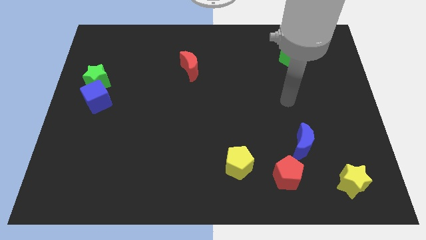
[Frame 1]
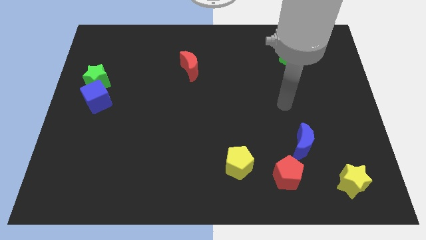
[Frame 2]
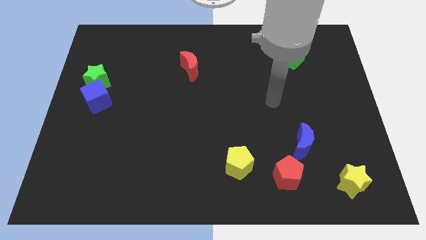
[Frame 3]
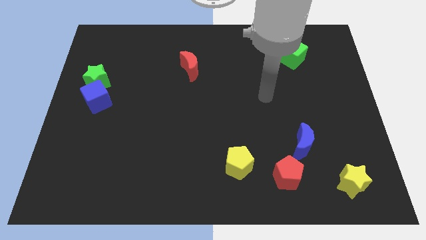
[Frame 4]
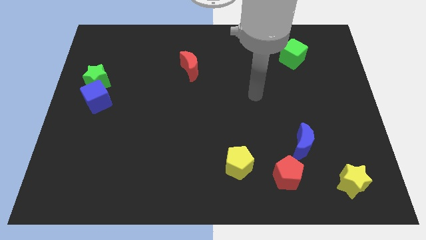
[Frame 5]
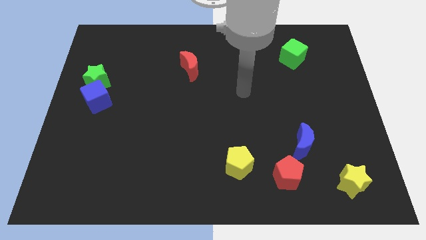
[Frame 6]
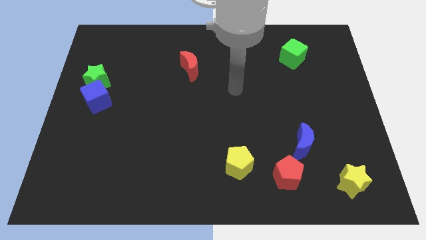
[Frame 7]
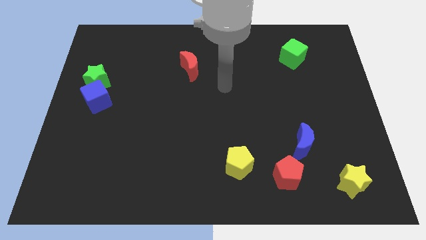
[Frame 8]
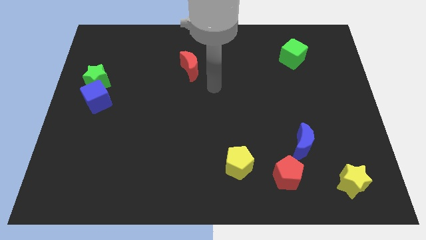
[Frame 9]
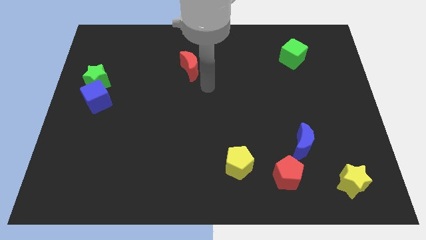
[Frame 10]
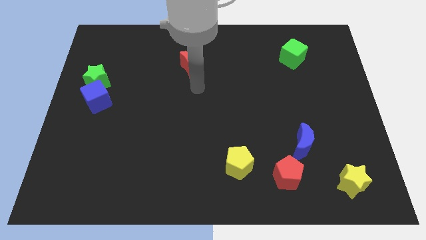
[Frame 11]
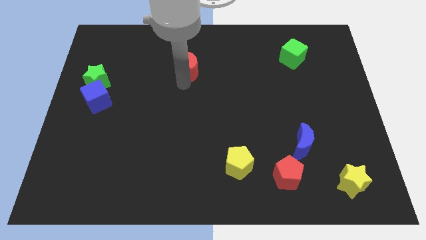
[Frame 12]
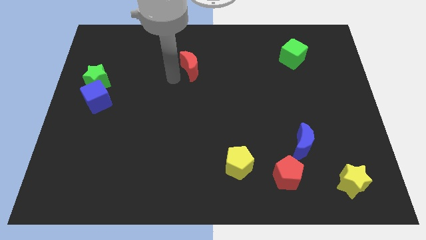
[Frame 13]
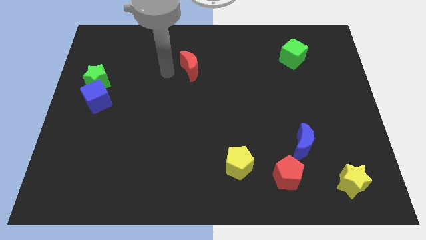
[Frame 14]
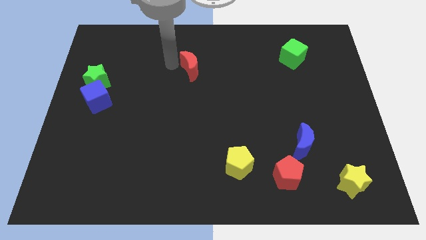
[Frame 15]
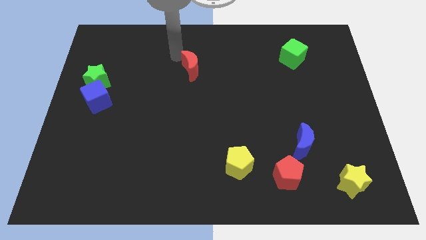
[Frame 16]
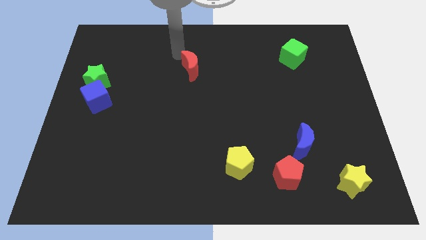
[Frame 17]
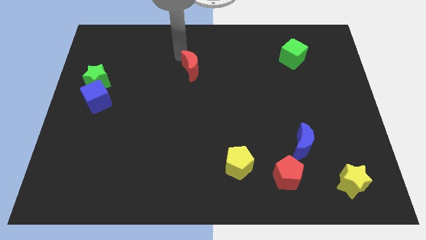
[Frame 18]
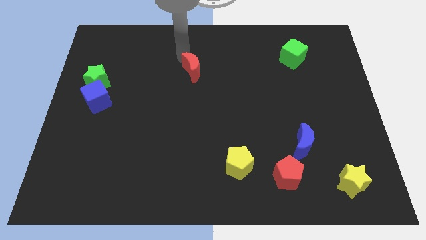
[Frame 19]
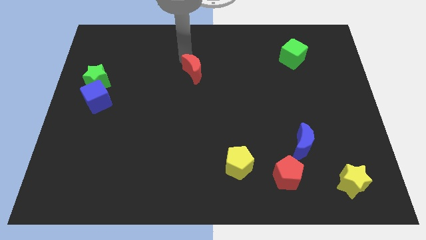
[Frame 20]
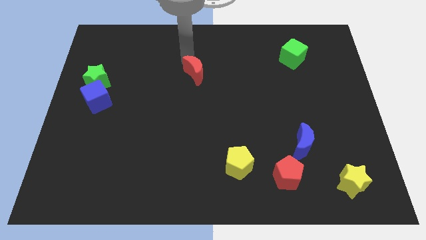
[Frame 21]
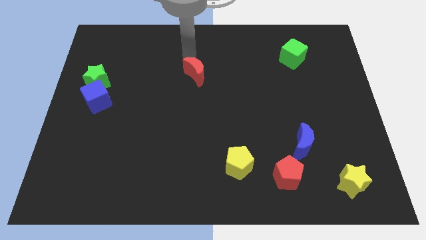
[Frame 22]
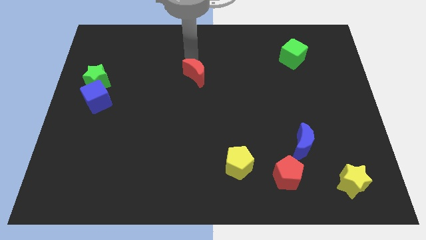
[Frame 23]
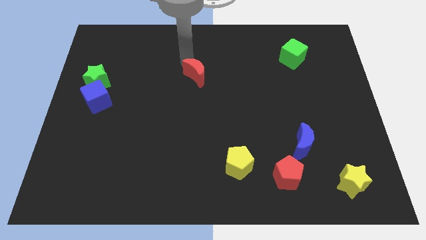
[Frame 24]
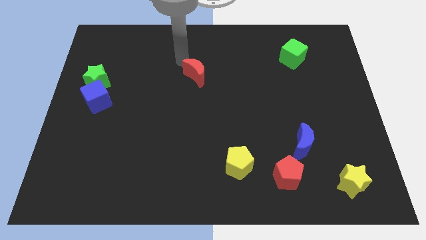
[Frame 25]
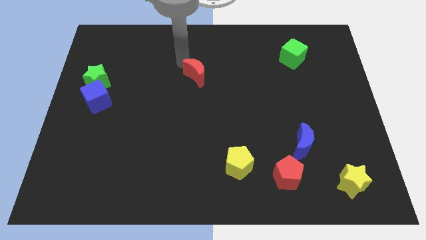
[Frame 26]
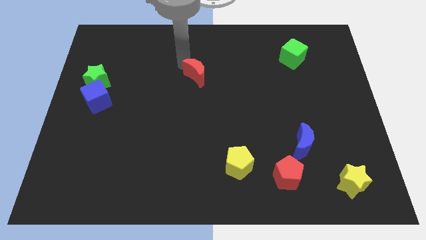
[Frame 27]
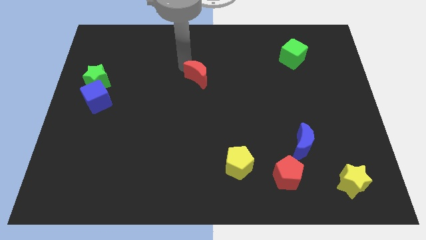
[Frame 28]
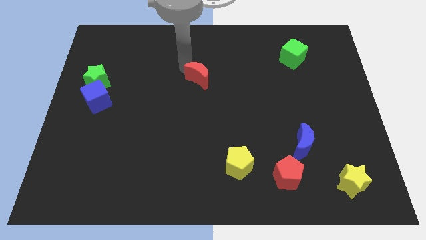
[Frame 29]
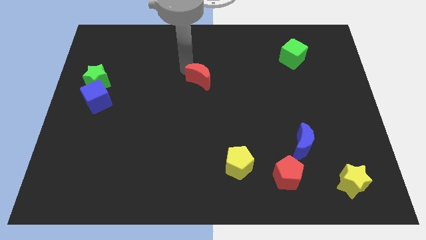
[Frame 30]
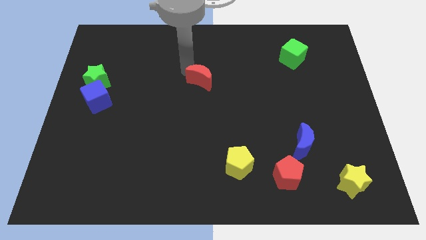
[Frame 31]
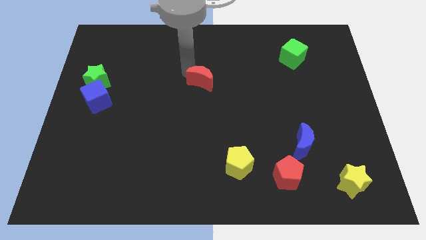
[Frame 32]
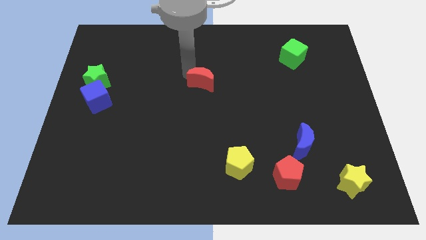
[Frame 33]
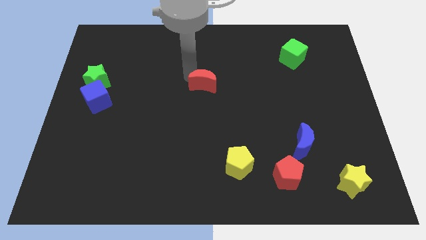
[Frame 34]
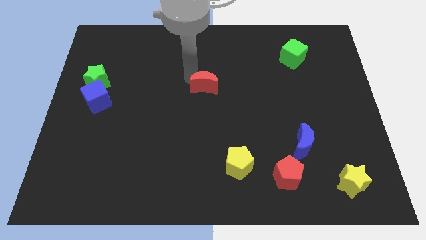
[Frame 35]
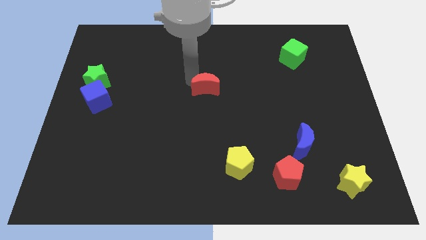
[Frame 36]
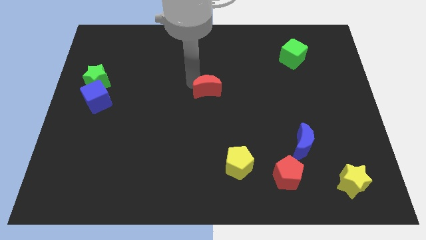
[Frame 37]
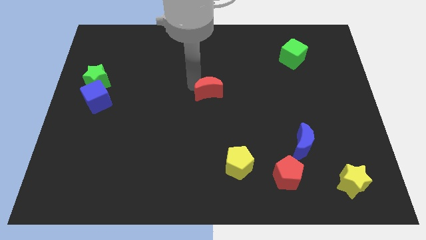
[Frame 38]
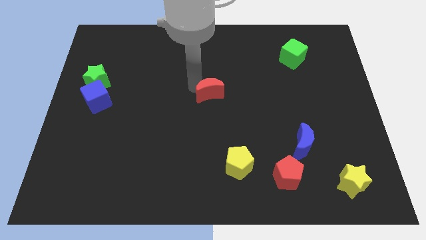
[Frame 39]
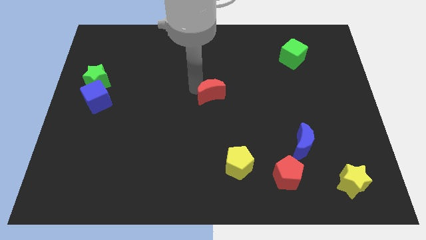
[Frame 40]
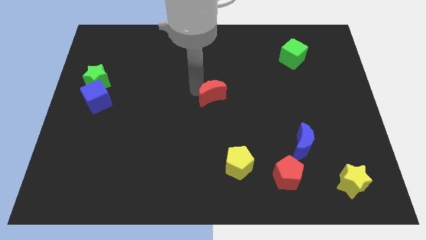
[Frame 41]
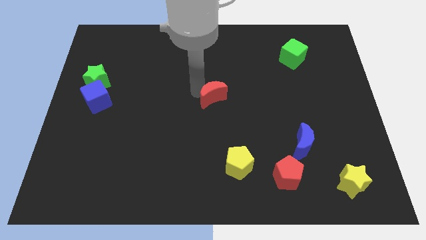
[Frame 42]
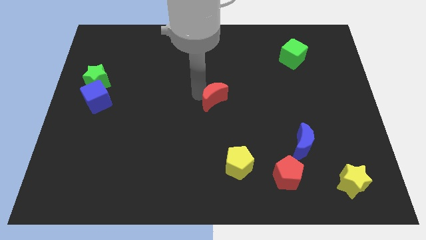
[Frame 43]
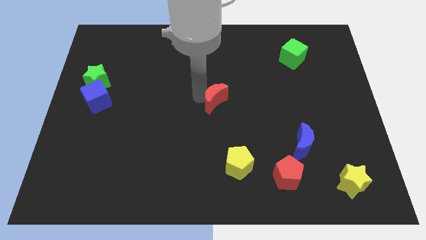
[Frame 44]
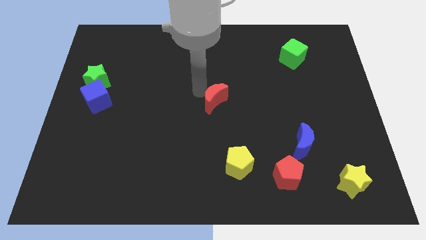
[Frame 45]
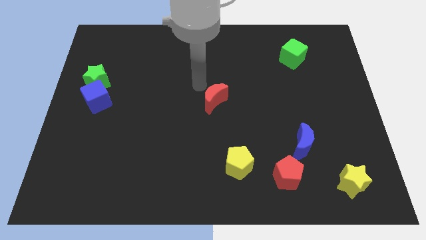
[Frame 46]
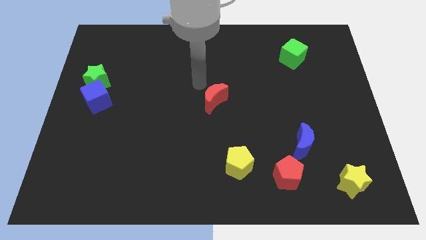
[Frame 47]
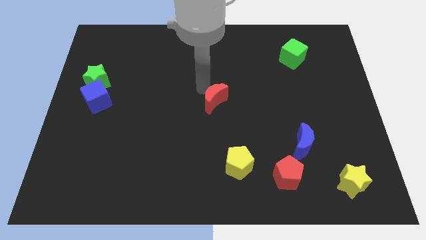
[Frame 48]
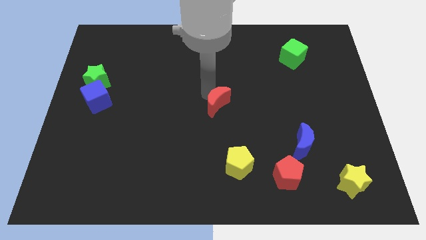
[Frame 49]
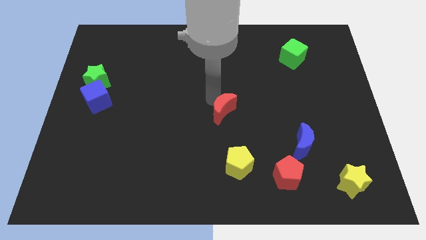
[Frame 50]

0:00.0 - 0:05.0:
move the red moon to the top side of the yellow pentagon

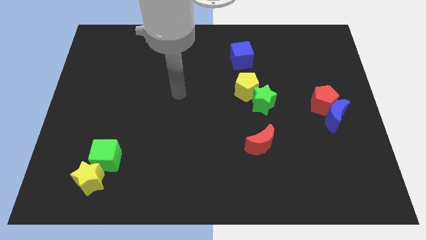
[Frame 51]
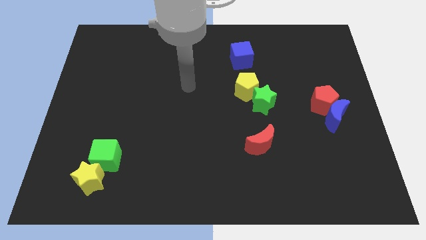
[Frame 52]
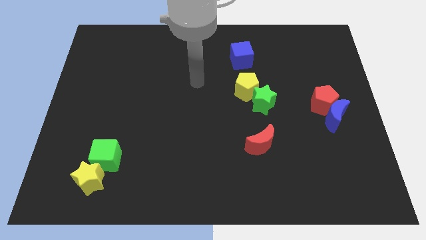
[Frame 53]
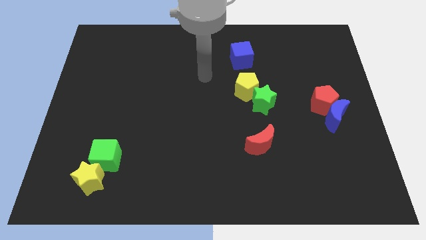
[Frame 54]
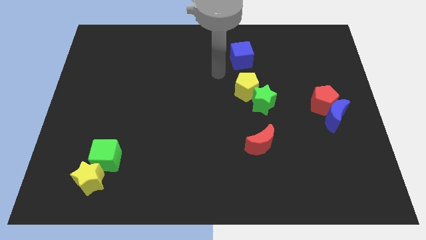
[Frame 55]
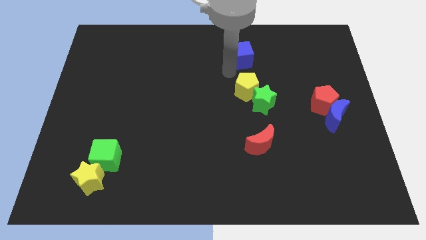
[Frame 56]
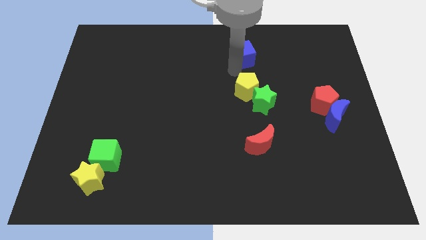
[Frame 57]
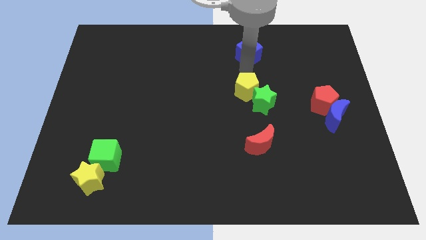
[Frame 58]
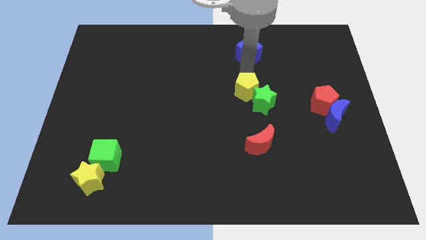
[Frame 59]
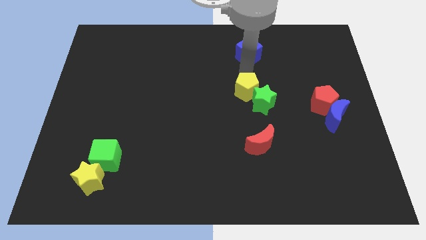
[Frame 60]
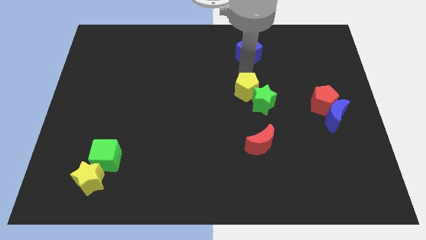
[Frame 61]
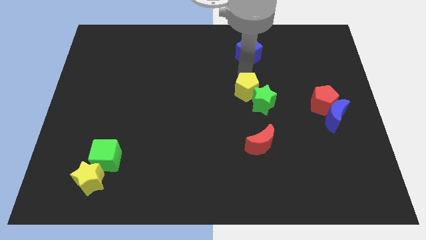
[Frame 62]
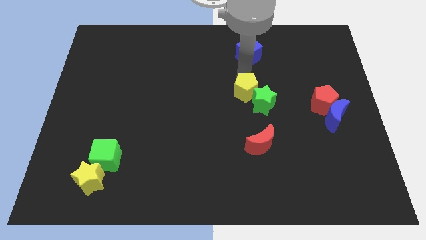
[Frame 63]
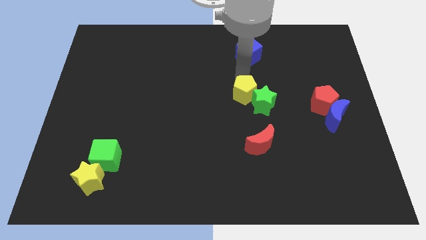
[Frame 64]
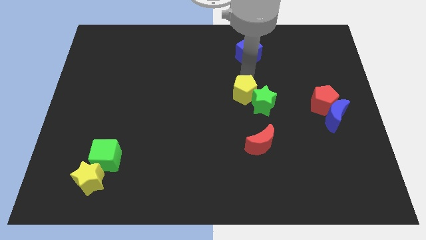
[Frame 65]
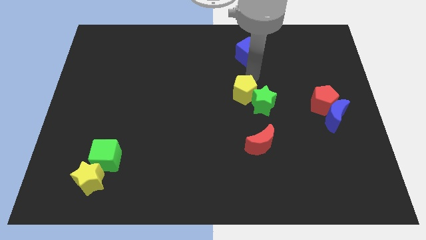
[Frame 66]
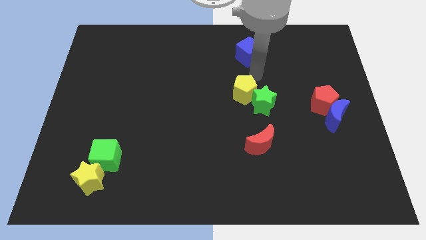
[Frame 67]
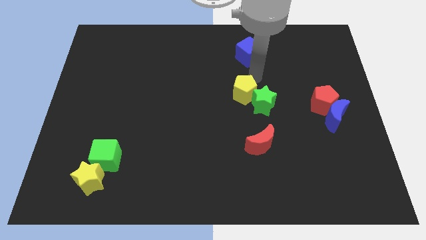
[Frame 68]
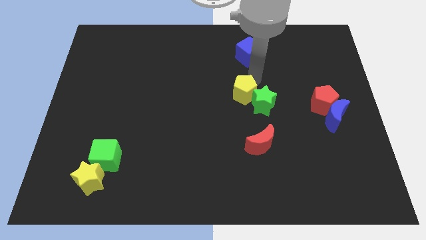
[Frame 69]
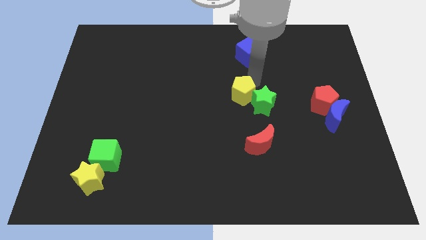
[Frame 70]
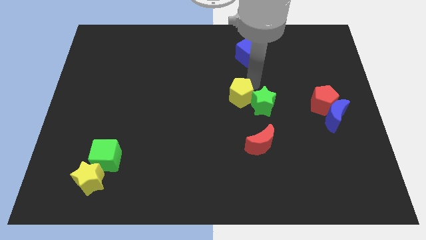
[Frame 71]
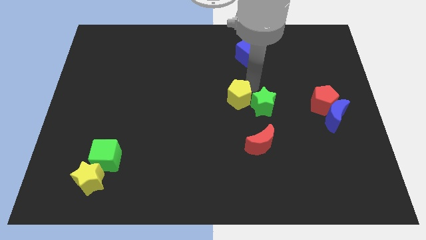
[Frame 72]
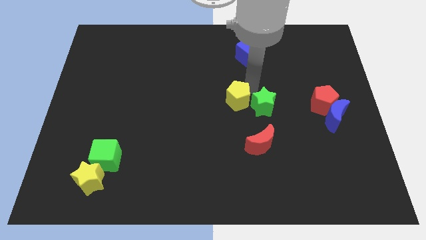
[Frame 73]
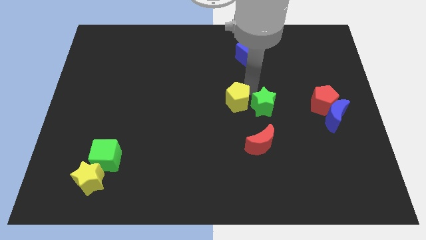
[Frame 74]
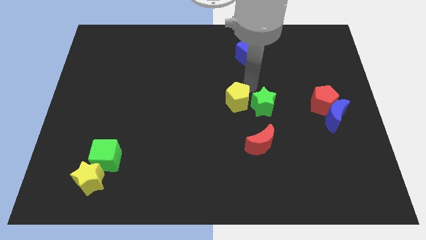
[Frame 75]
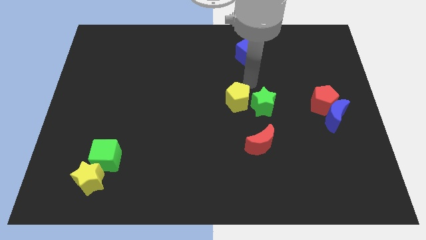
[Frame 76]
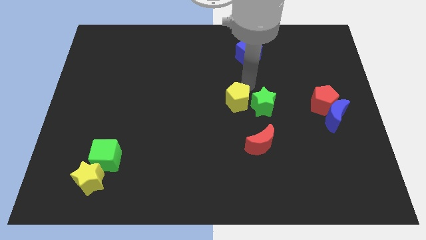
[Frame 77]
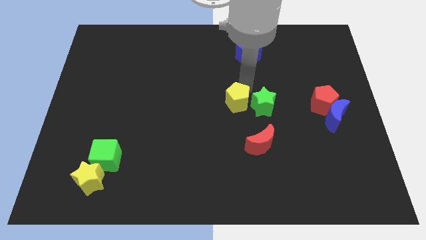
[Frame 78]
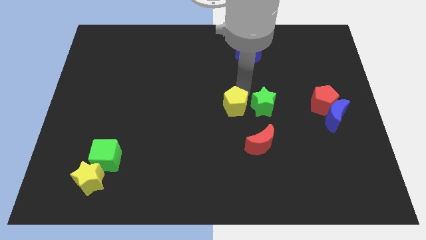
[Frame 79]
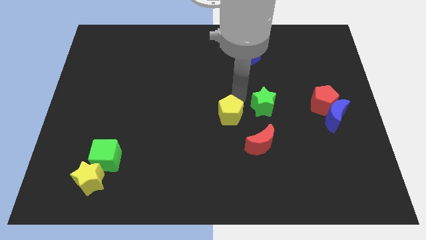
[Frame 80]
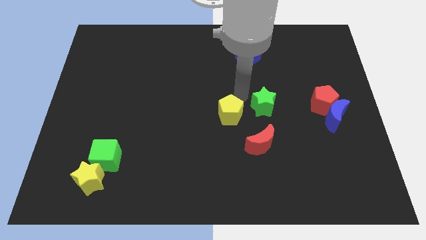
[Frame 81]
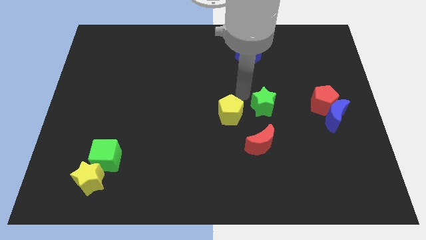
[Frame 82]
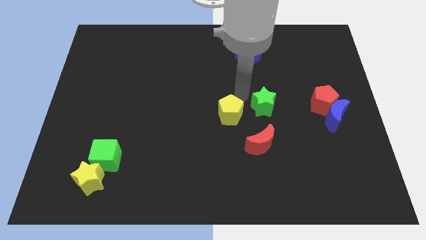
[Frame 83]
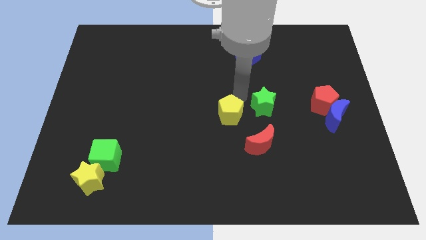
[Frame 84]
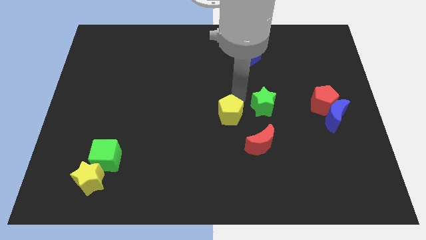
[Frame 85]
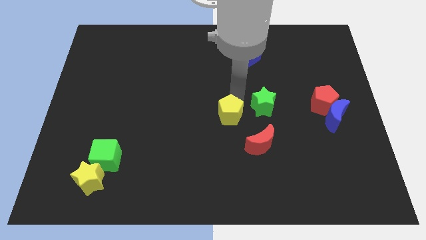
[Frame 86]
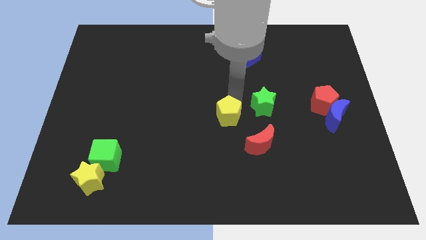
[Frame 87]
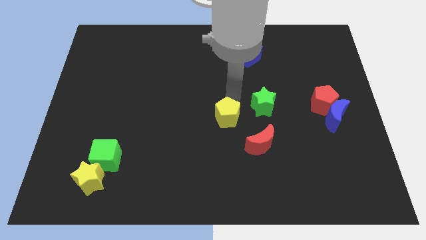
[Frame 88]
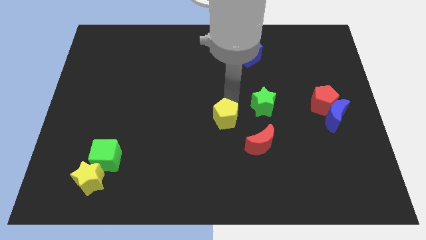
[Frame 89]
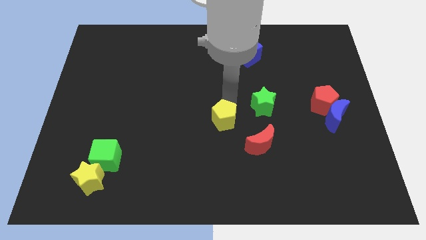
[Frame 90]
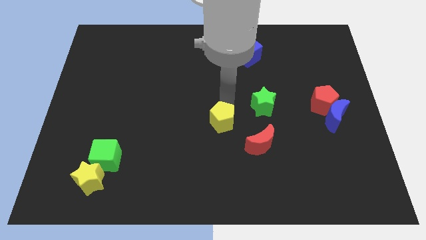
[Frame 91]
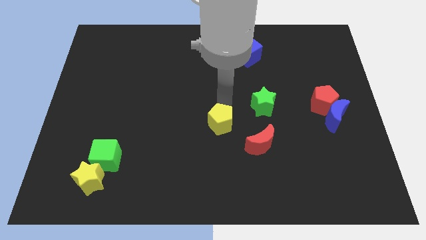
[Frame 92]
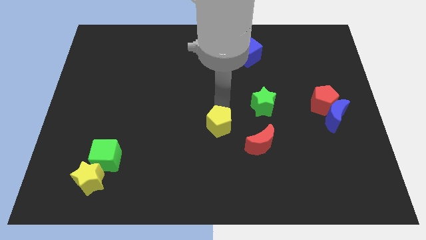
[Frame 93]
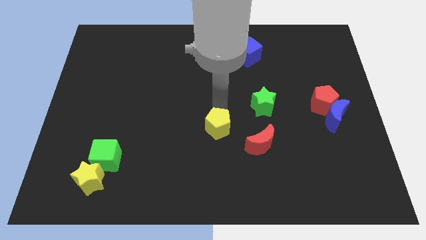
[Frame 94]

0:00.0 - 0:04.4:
slide the yellow pentagon to the left of the red moon
